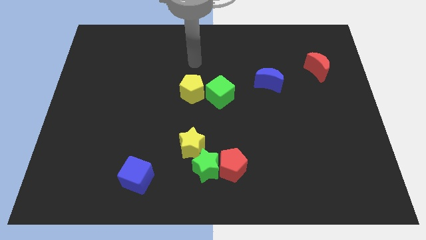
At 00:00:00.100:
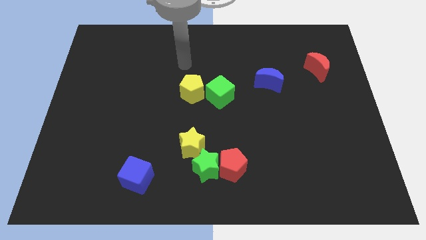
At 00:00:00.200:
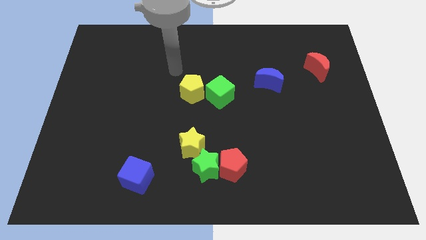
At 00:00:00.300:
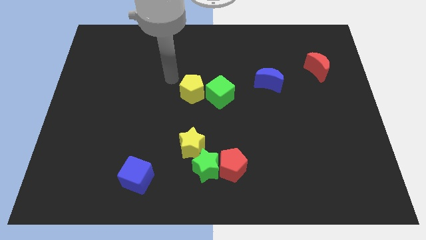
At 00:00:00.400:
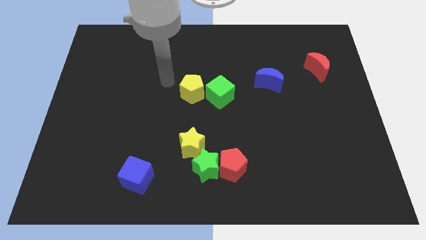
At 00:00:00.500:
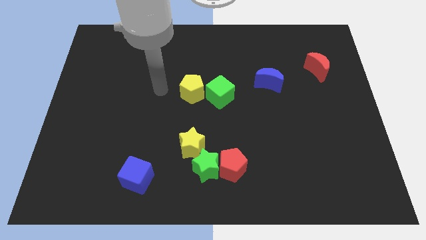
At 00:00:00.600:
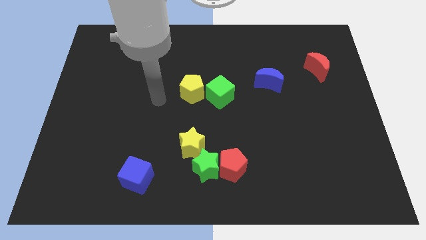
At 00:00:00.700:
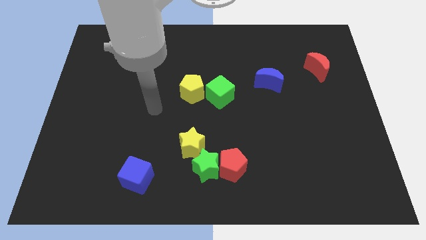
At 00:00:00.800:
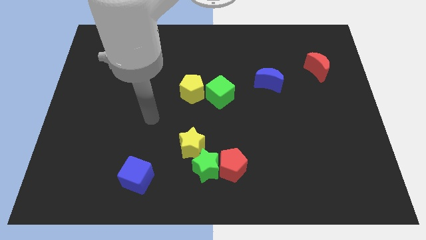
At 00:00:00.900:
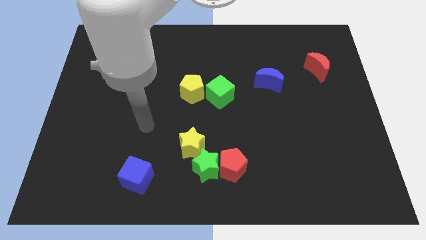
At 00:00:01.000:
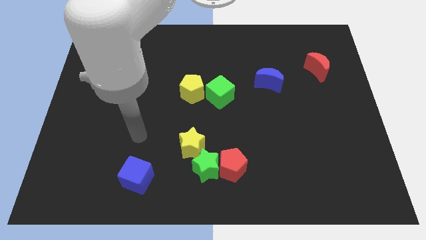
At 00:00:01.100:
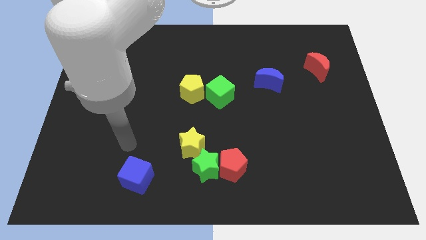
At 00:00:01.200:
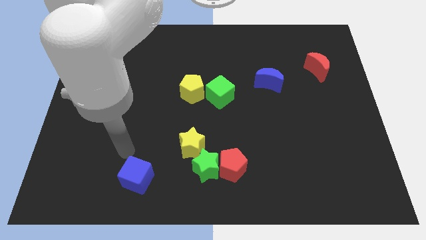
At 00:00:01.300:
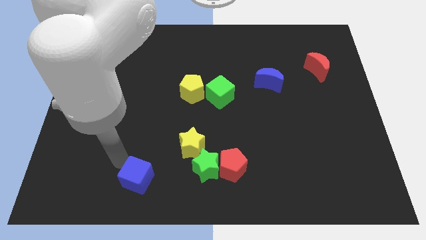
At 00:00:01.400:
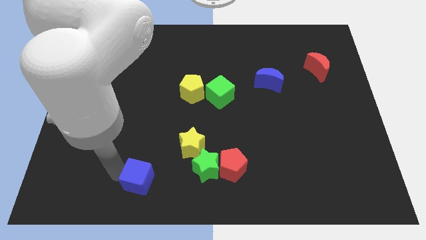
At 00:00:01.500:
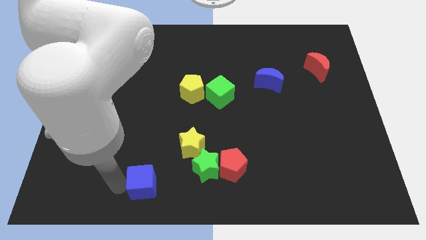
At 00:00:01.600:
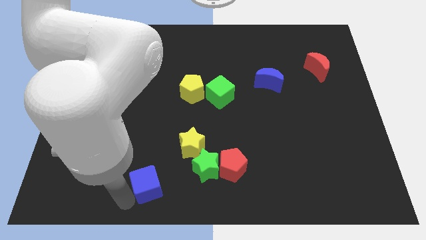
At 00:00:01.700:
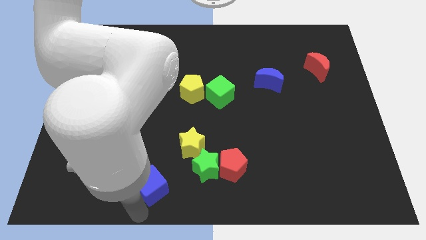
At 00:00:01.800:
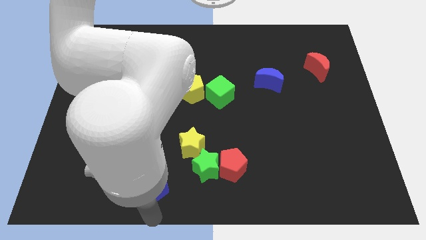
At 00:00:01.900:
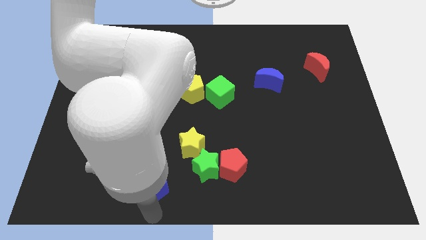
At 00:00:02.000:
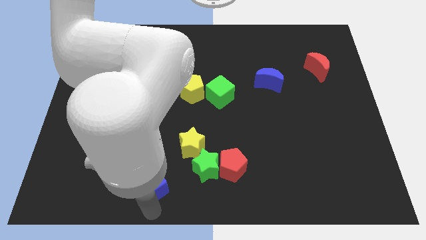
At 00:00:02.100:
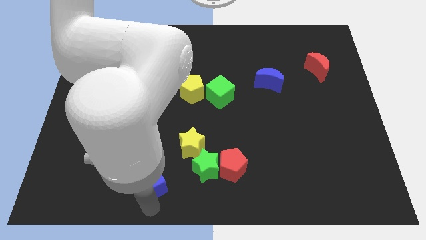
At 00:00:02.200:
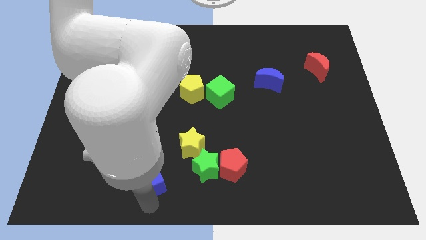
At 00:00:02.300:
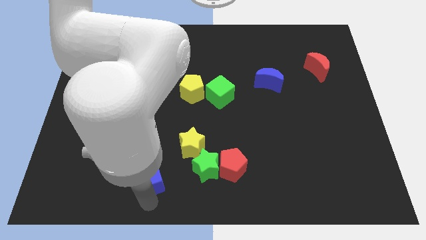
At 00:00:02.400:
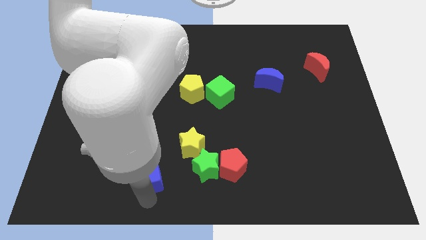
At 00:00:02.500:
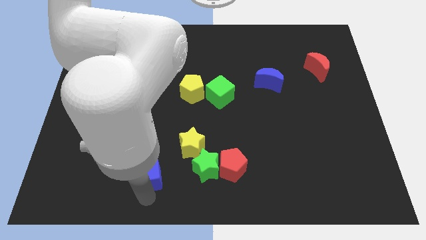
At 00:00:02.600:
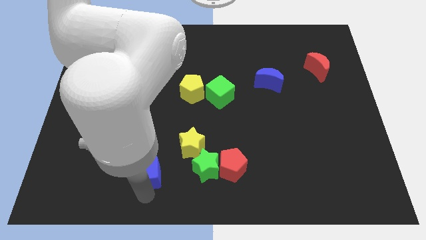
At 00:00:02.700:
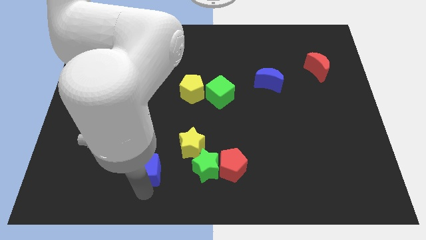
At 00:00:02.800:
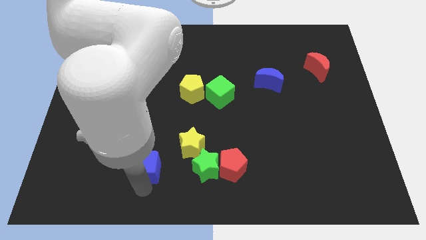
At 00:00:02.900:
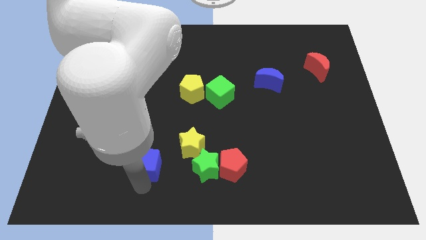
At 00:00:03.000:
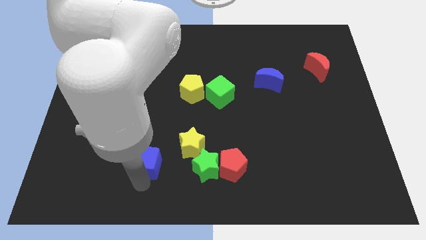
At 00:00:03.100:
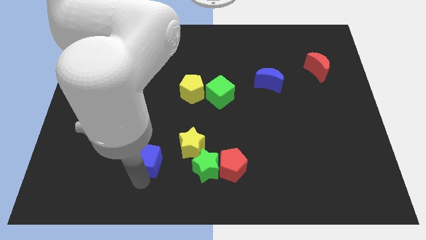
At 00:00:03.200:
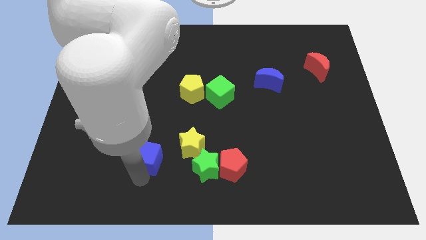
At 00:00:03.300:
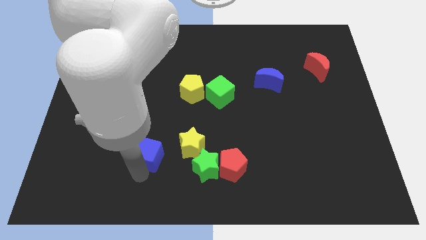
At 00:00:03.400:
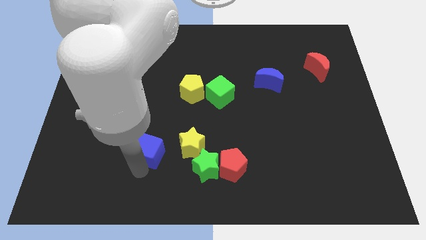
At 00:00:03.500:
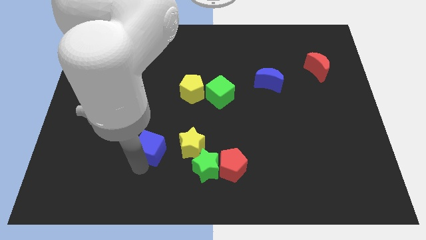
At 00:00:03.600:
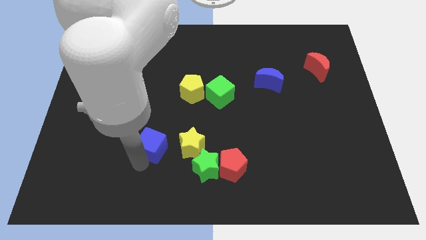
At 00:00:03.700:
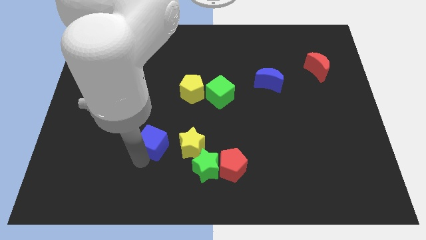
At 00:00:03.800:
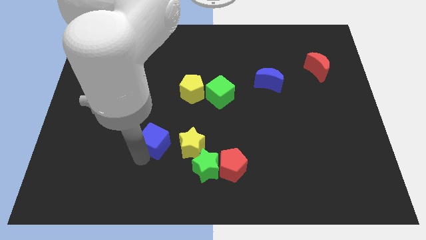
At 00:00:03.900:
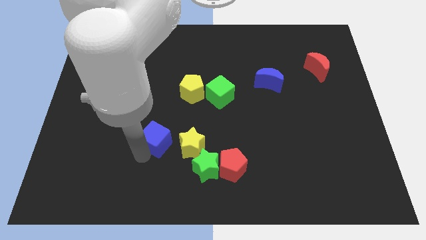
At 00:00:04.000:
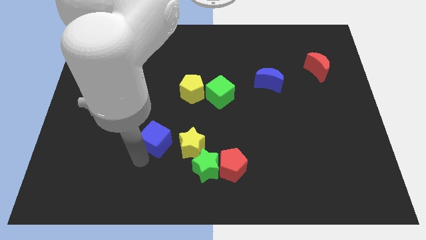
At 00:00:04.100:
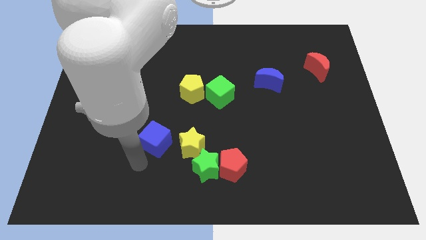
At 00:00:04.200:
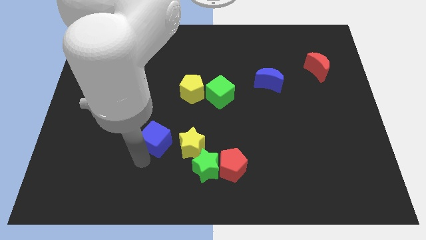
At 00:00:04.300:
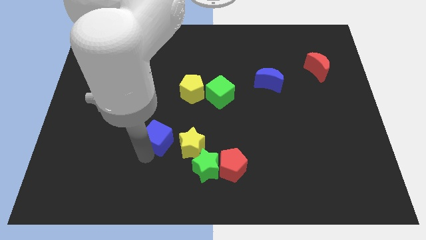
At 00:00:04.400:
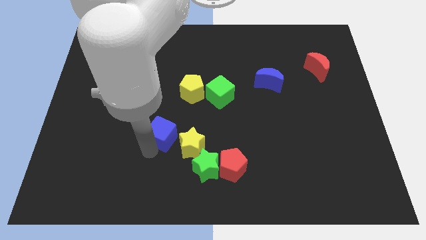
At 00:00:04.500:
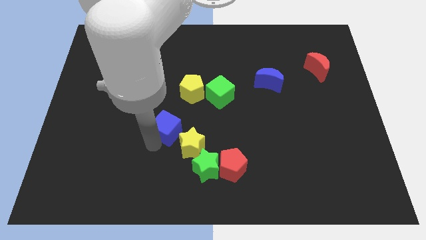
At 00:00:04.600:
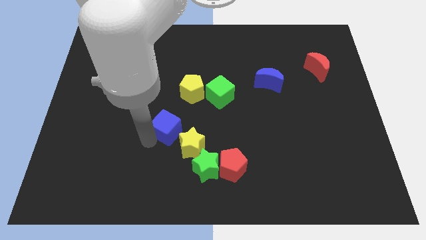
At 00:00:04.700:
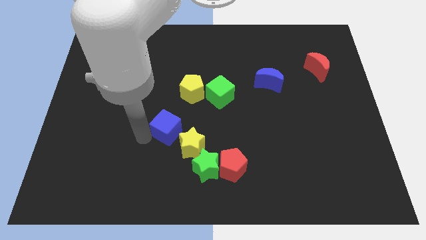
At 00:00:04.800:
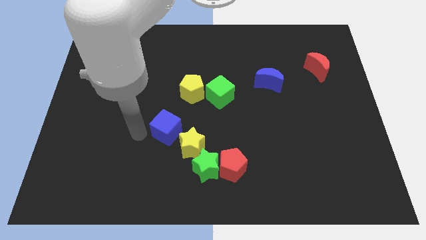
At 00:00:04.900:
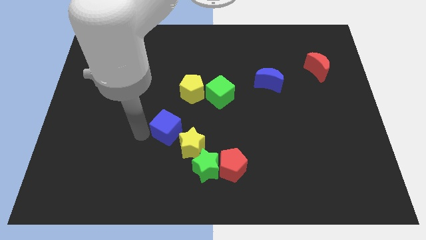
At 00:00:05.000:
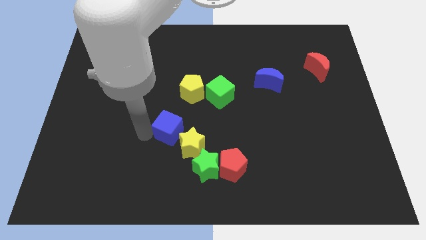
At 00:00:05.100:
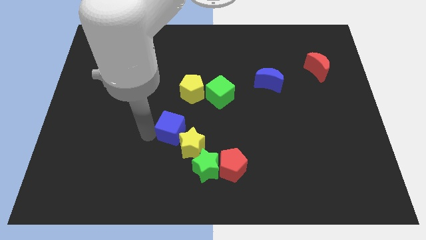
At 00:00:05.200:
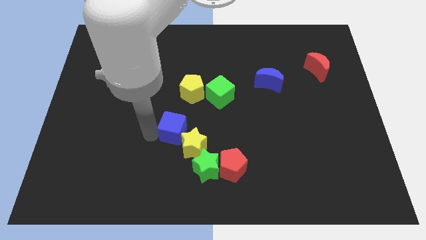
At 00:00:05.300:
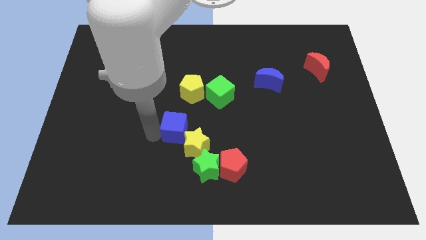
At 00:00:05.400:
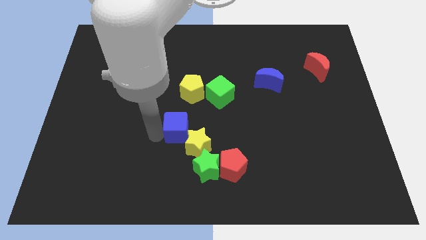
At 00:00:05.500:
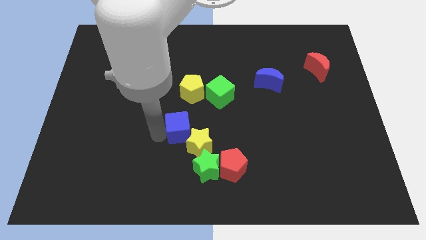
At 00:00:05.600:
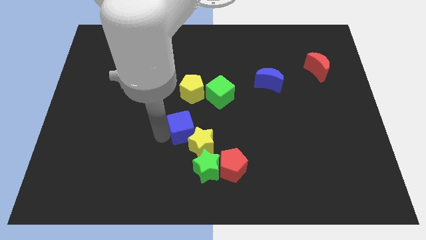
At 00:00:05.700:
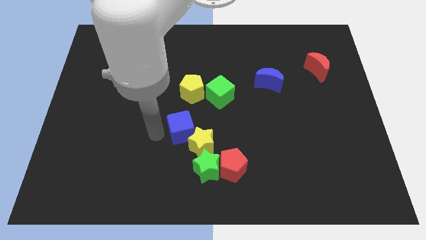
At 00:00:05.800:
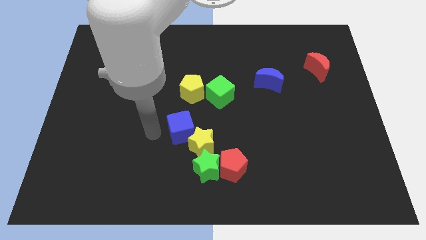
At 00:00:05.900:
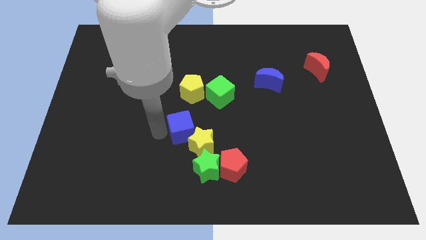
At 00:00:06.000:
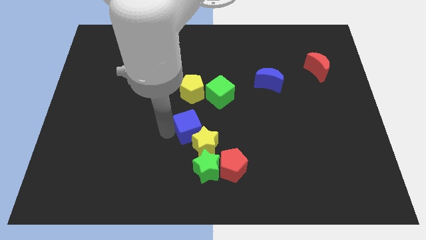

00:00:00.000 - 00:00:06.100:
slide the blue cube to the top side of the green star

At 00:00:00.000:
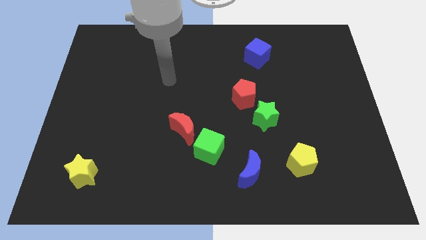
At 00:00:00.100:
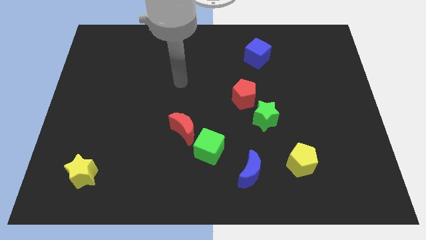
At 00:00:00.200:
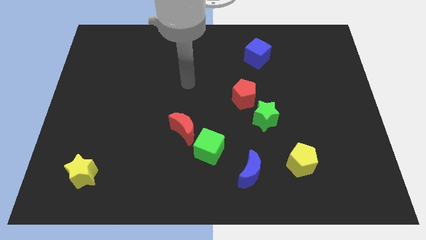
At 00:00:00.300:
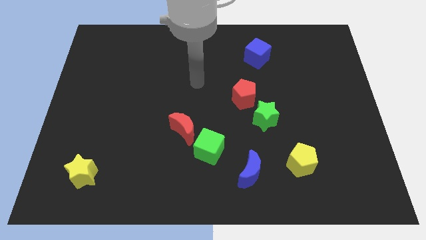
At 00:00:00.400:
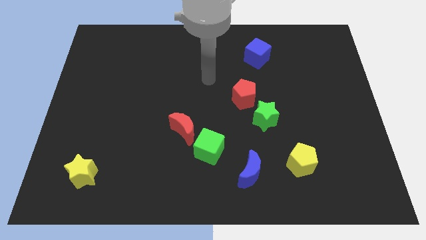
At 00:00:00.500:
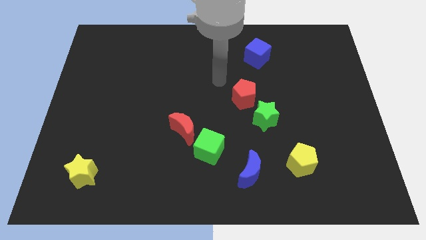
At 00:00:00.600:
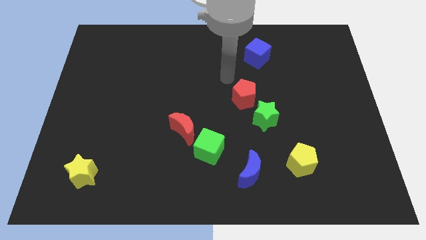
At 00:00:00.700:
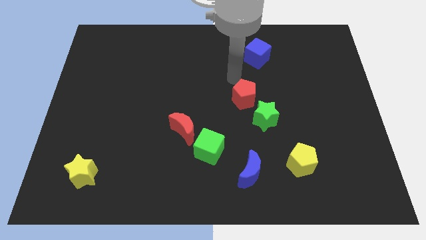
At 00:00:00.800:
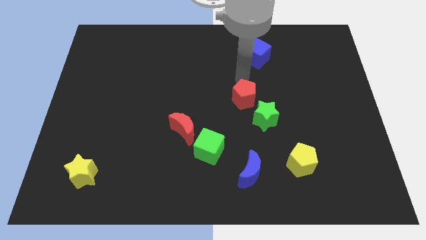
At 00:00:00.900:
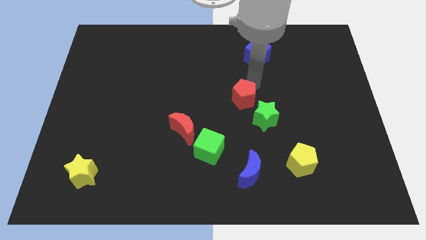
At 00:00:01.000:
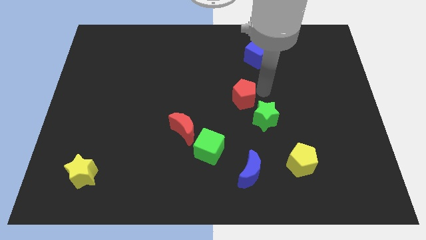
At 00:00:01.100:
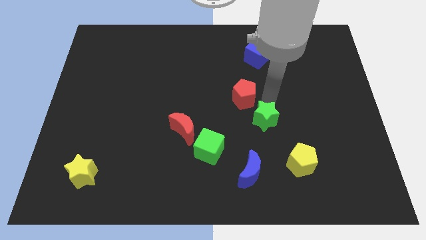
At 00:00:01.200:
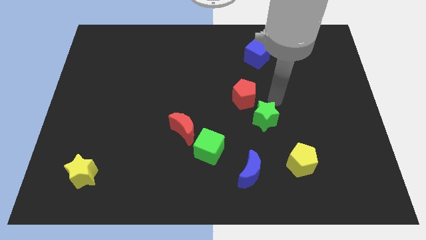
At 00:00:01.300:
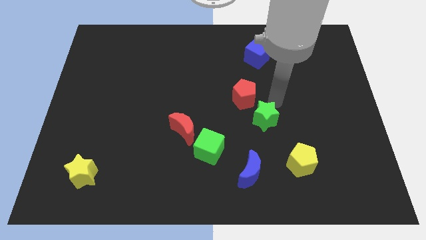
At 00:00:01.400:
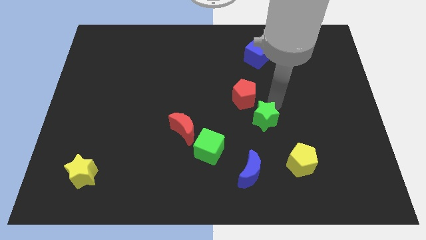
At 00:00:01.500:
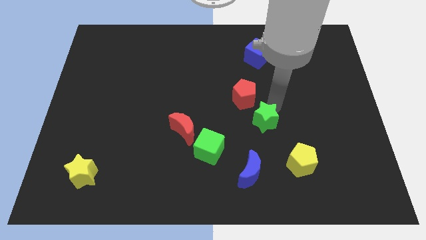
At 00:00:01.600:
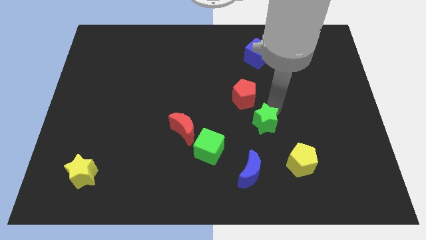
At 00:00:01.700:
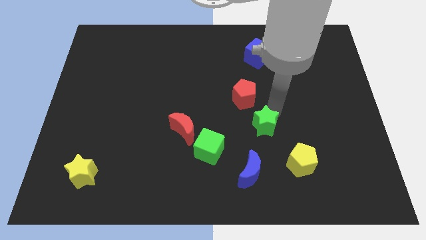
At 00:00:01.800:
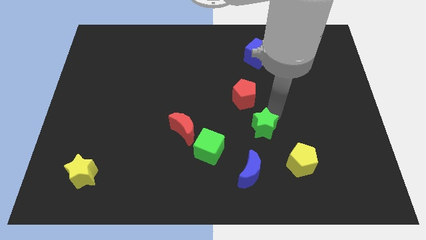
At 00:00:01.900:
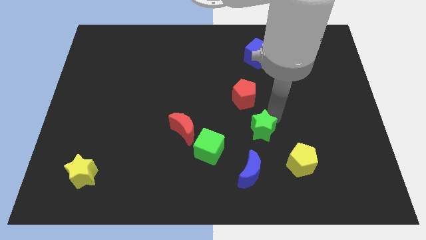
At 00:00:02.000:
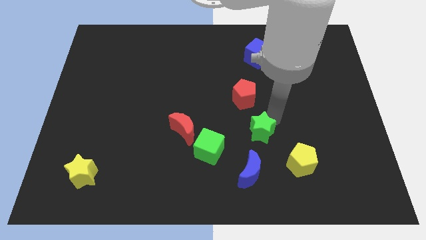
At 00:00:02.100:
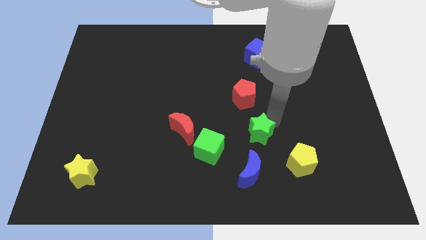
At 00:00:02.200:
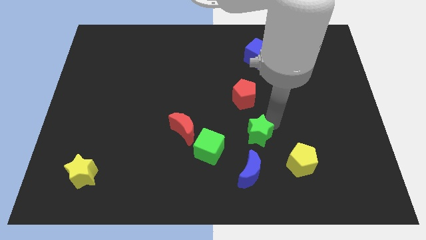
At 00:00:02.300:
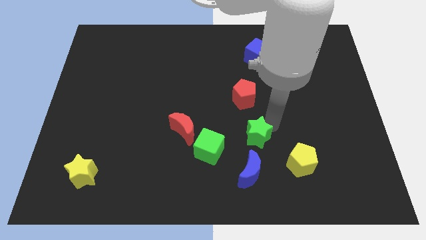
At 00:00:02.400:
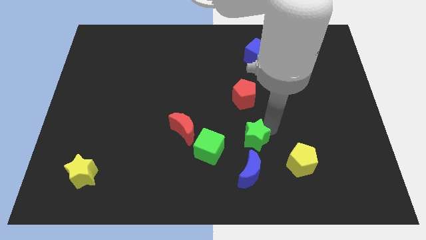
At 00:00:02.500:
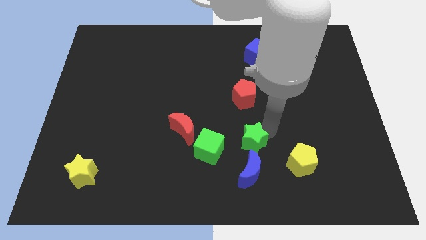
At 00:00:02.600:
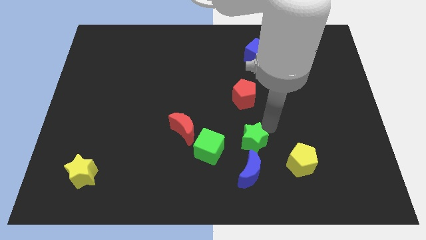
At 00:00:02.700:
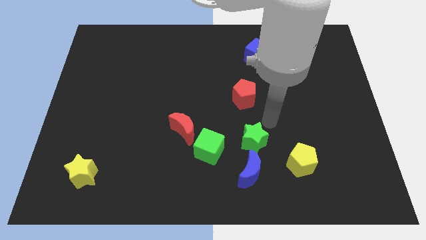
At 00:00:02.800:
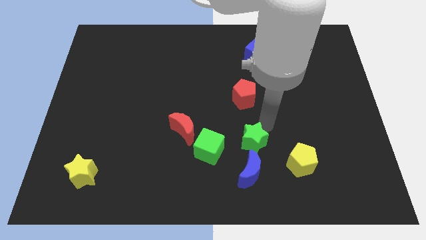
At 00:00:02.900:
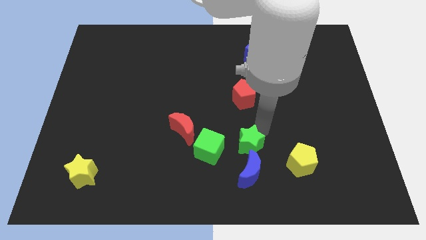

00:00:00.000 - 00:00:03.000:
put the green star left of the yellow pentagon
